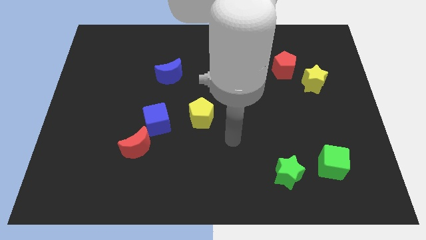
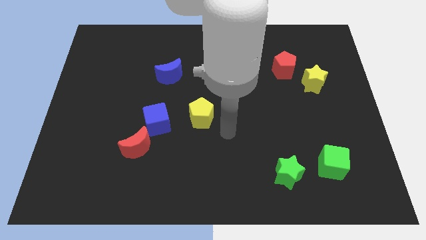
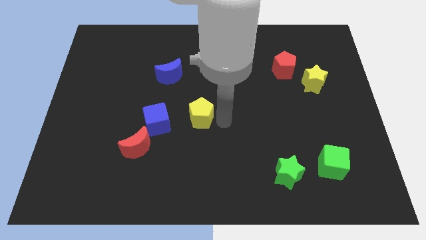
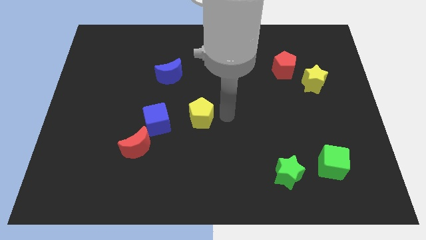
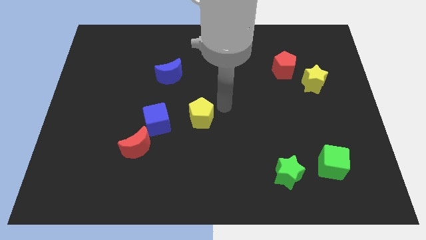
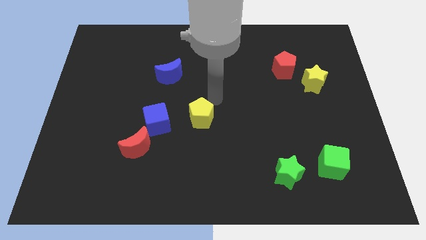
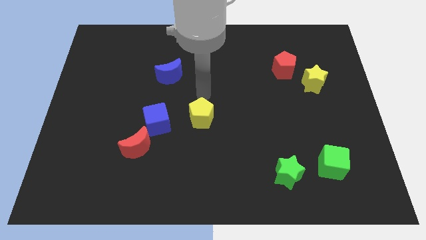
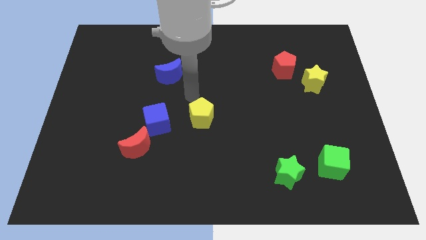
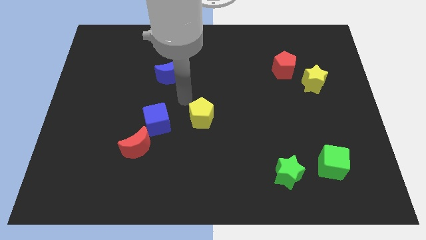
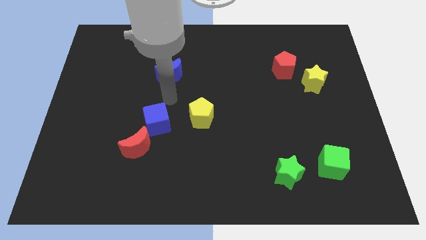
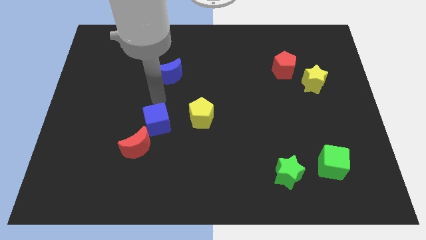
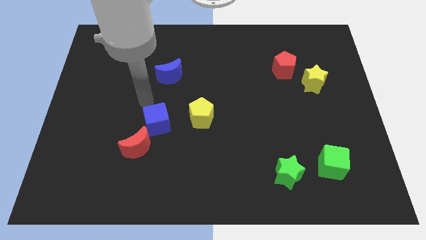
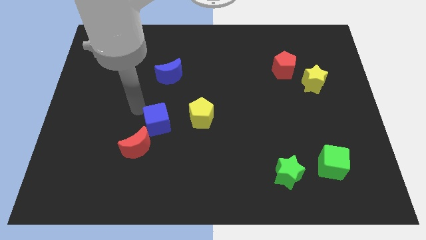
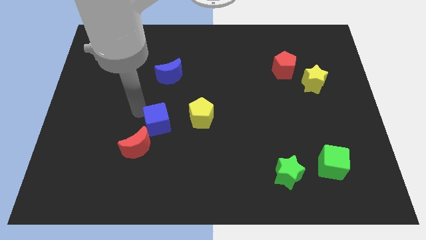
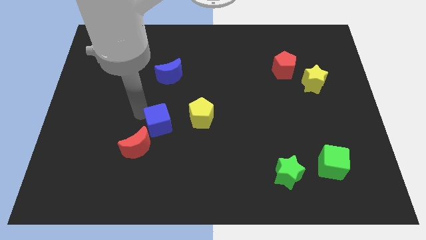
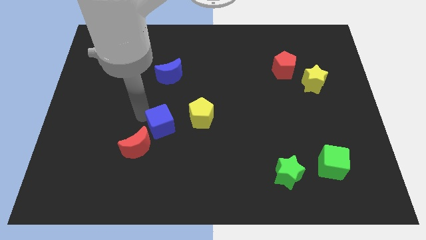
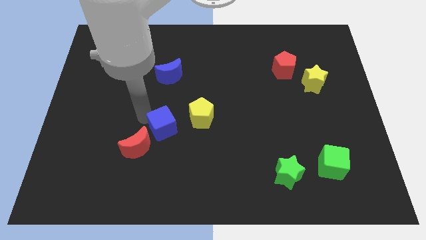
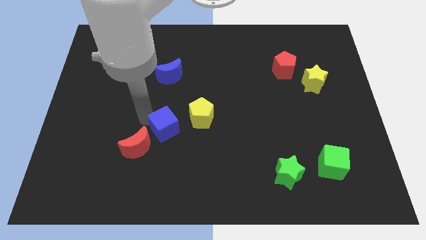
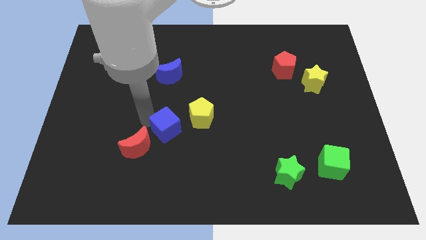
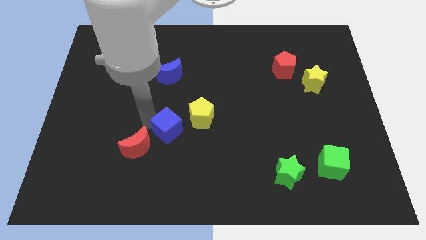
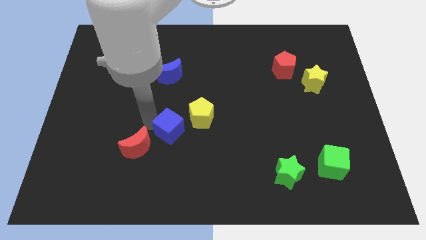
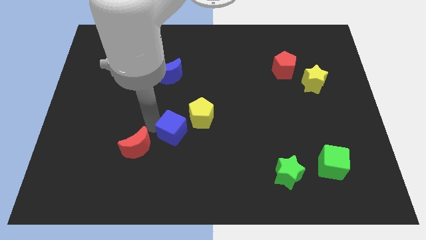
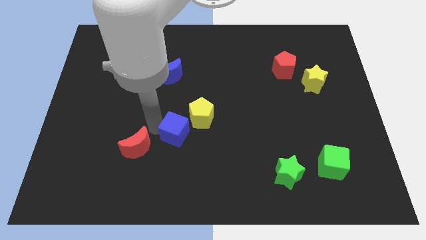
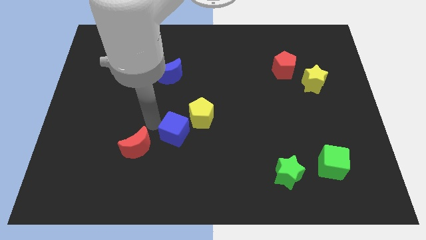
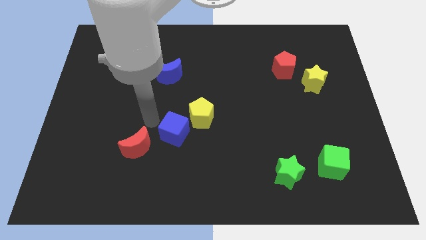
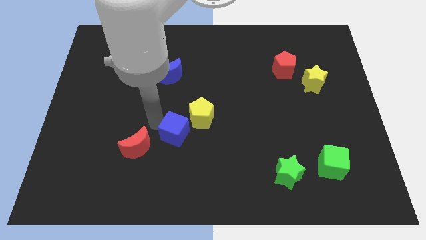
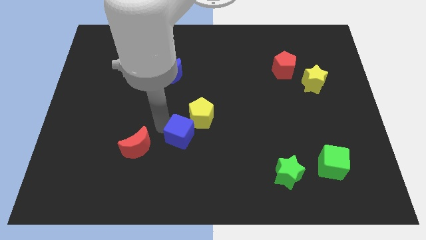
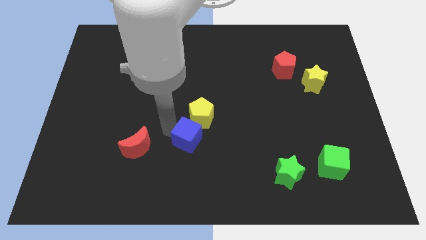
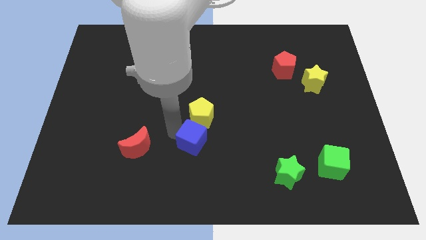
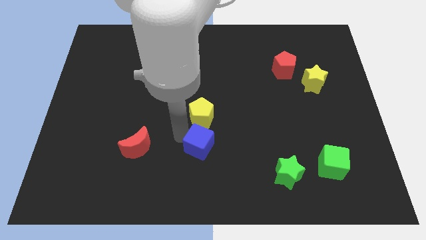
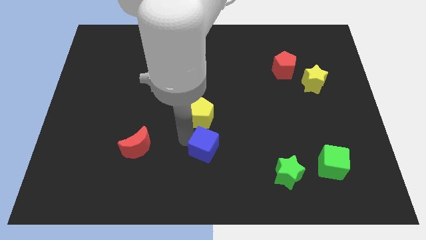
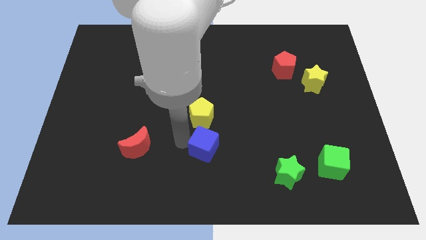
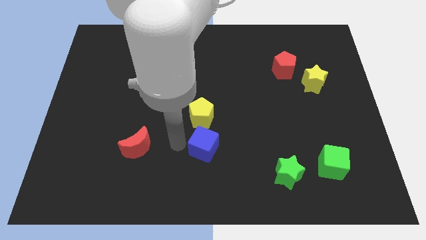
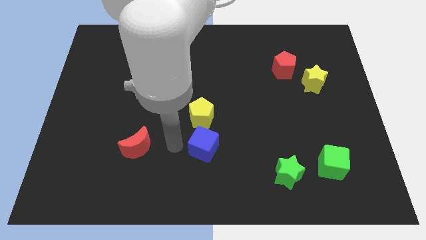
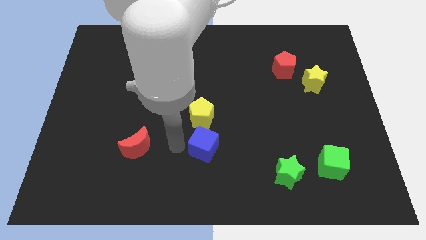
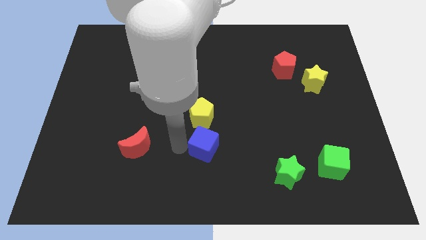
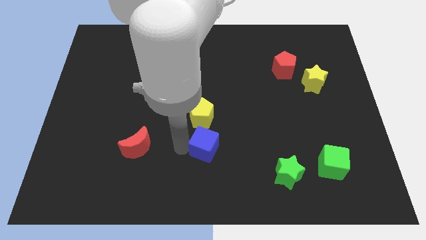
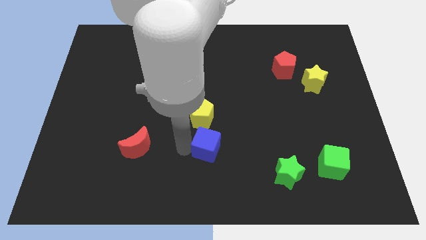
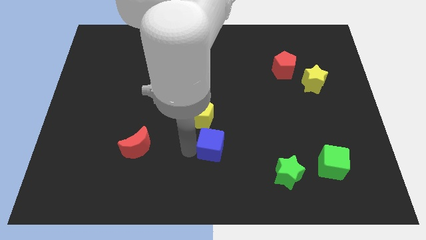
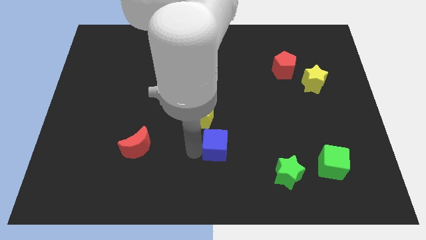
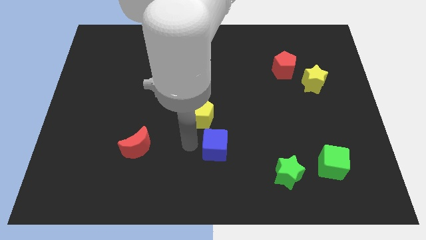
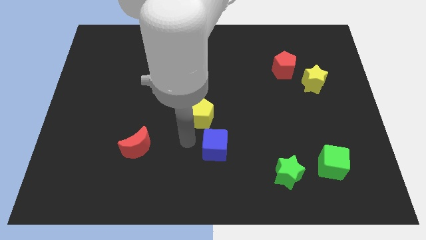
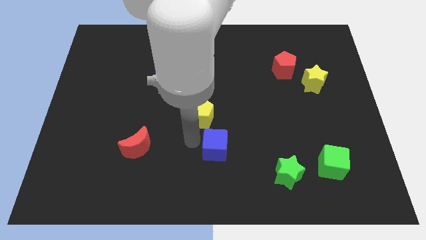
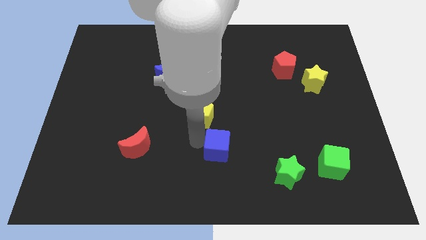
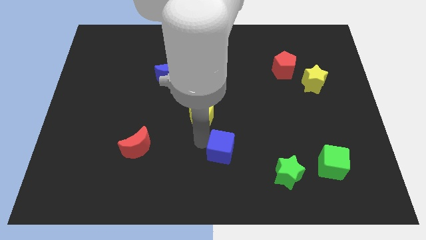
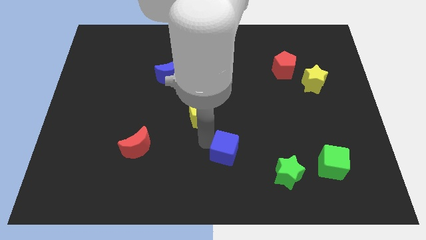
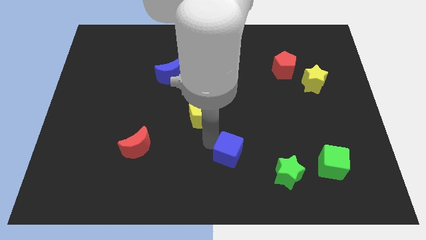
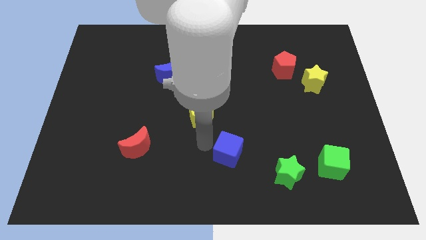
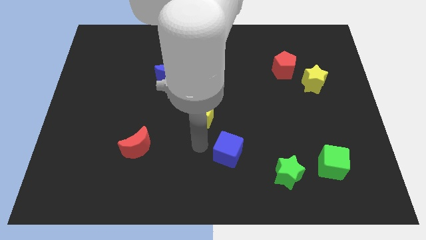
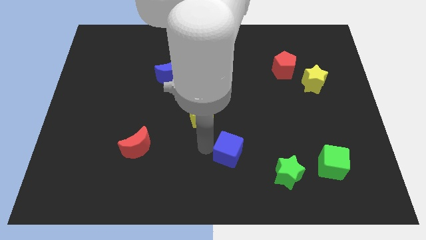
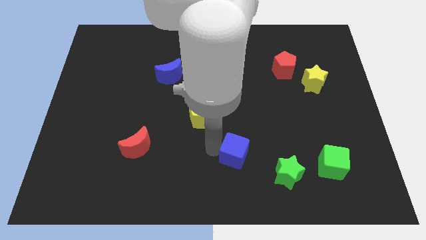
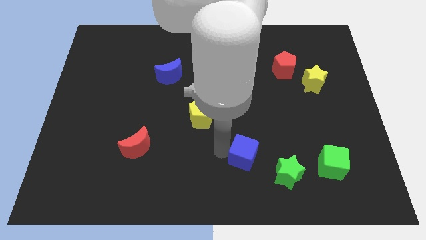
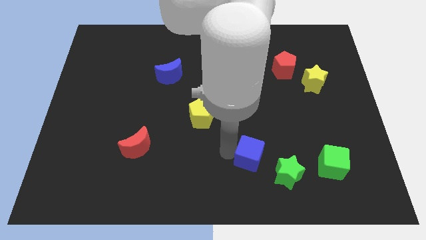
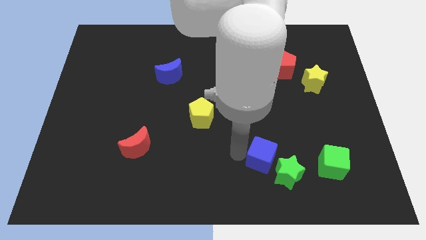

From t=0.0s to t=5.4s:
move the blue cube next to the green star

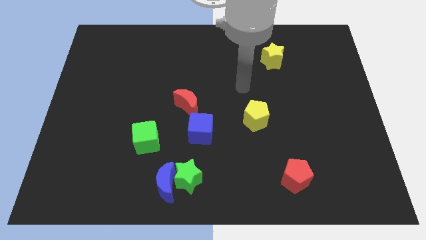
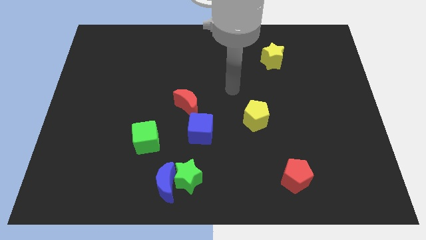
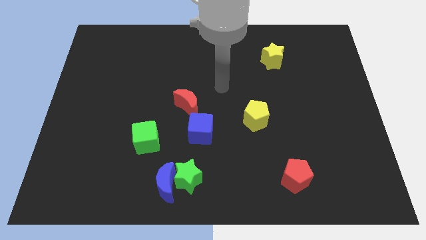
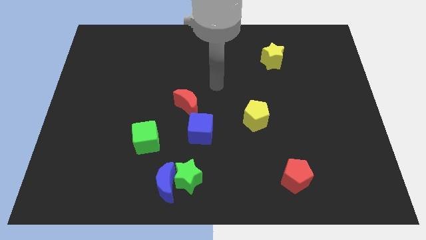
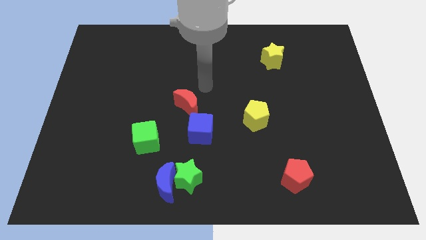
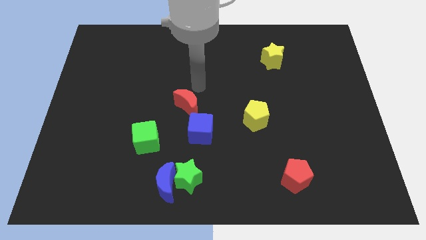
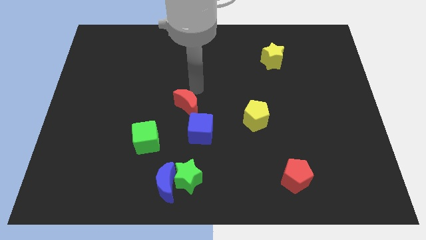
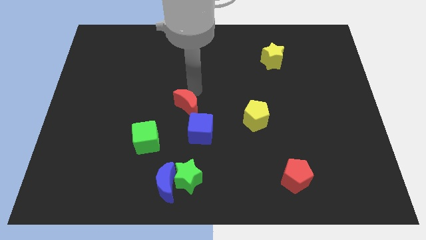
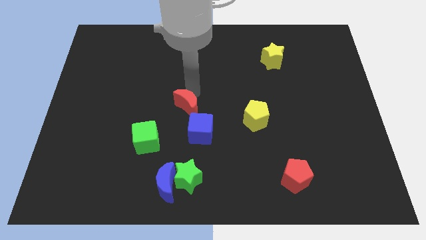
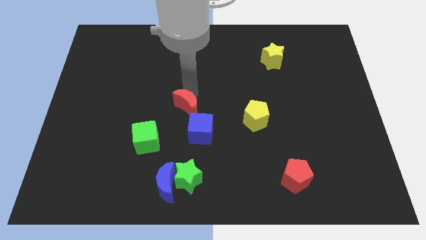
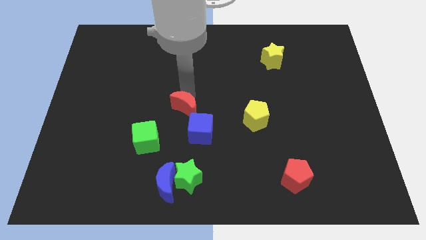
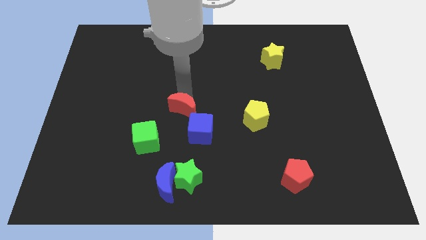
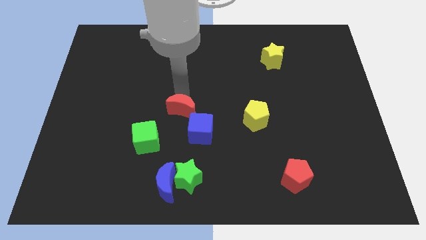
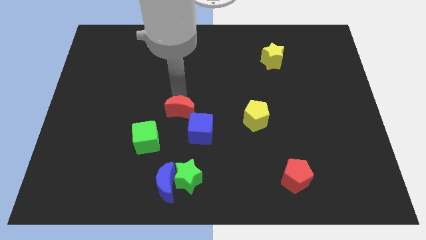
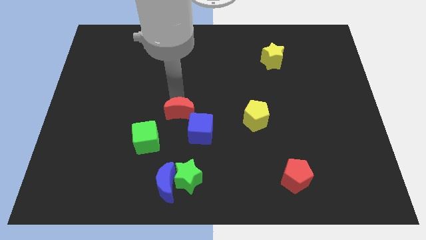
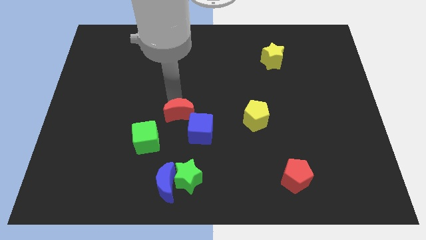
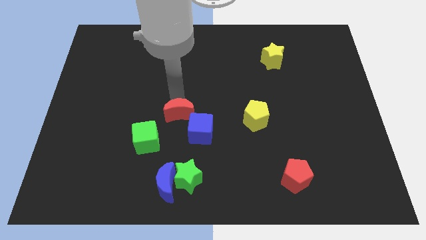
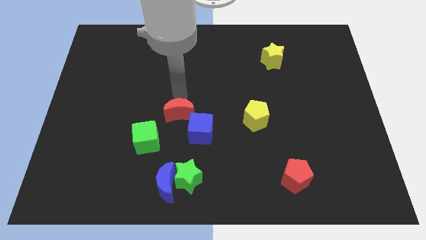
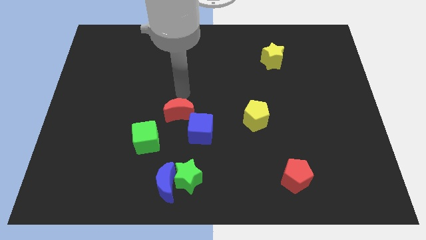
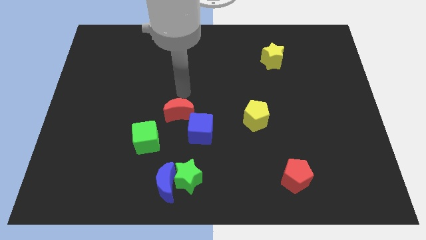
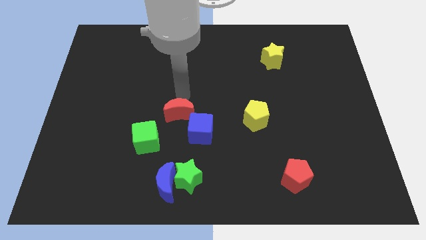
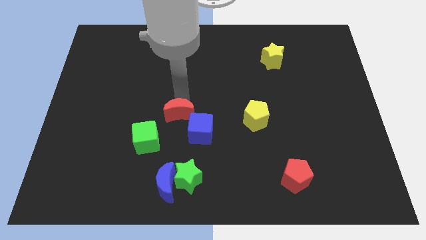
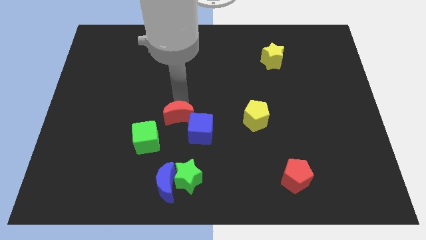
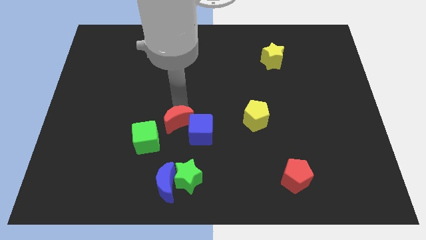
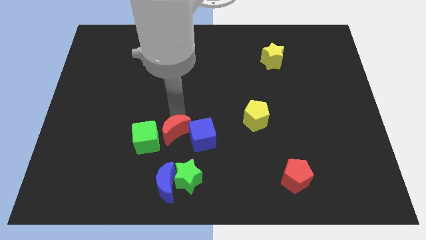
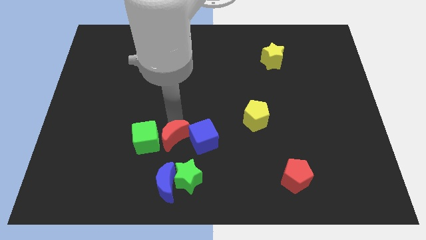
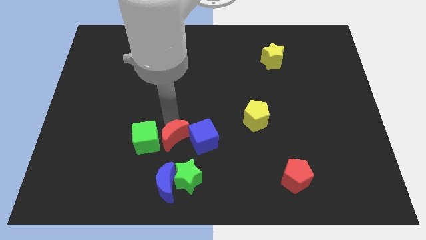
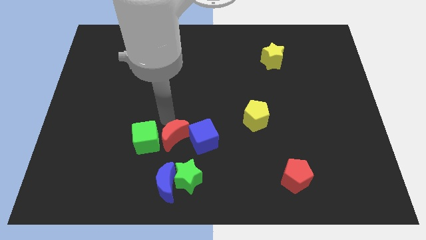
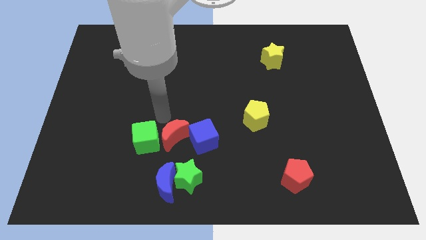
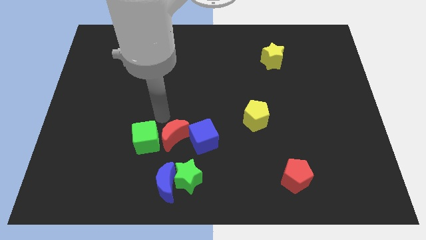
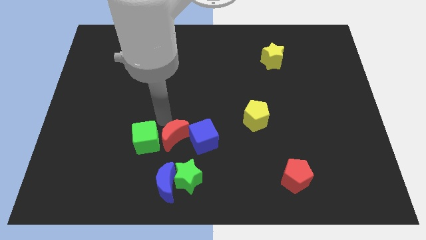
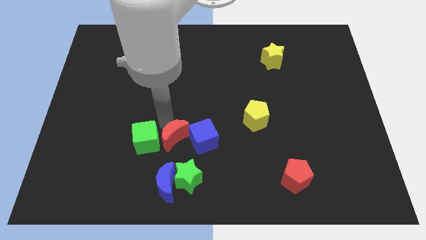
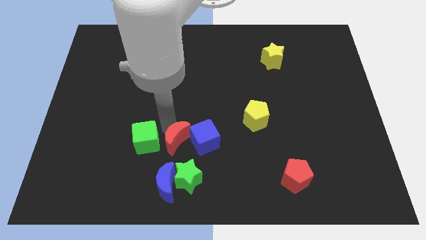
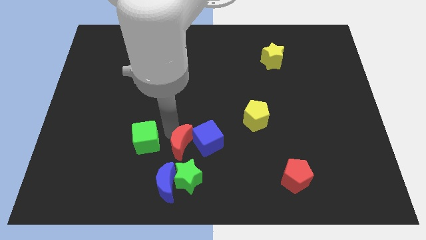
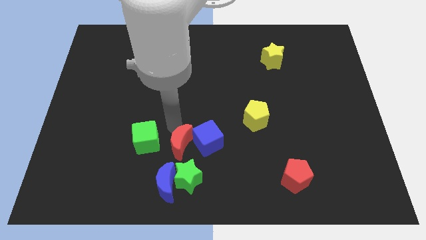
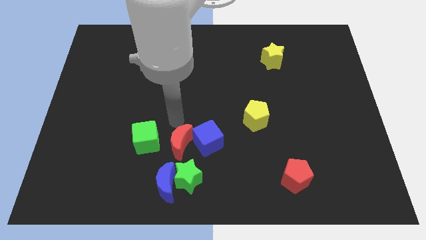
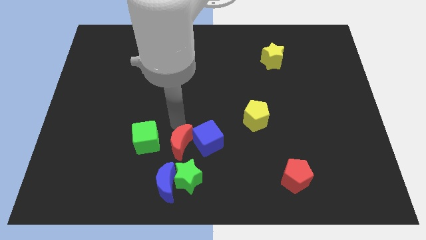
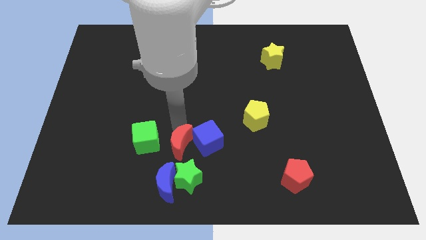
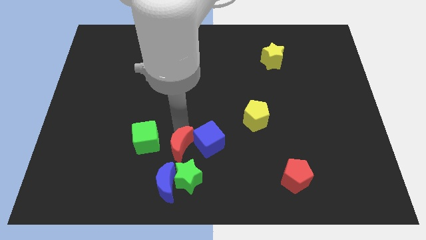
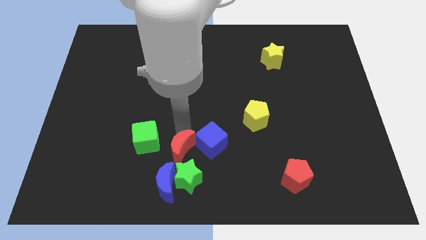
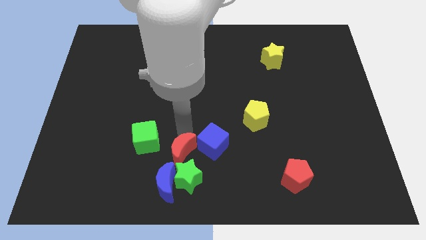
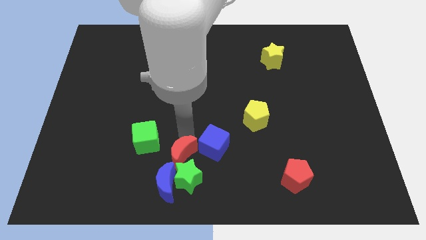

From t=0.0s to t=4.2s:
slide the red moon towards the green star
